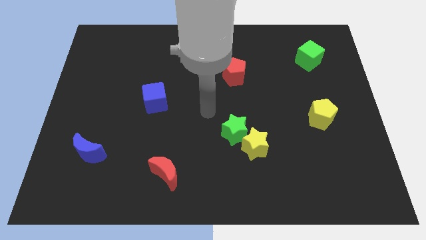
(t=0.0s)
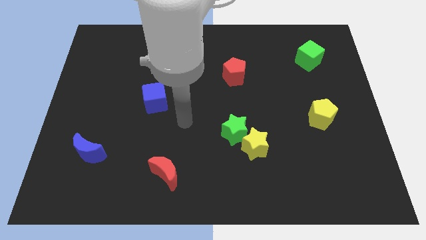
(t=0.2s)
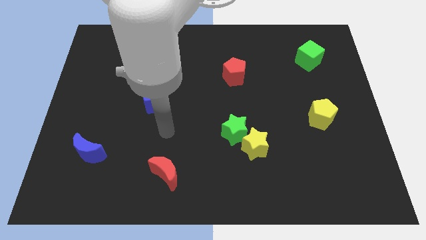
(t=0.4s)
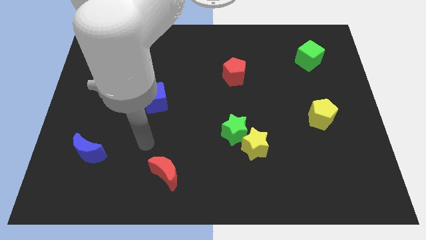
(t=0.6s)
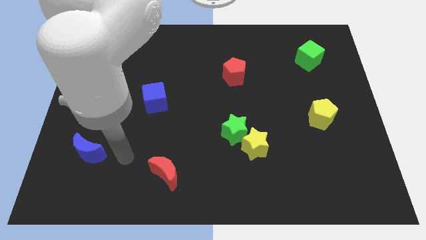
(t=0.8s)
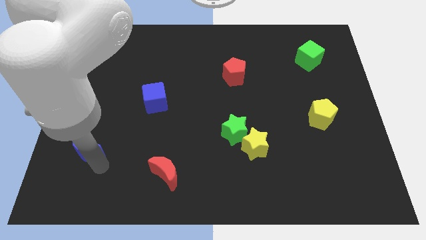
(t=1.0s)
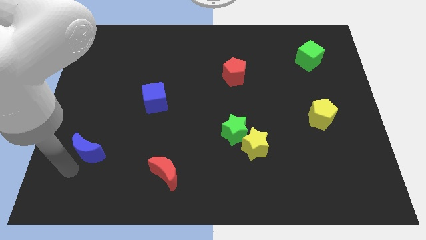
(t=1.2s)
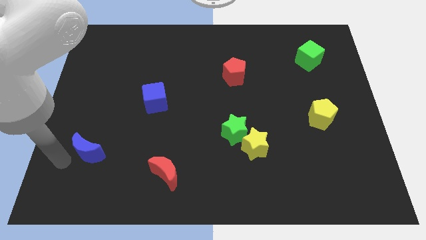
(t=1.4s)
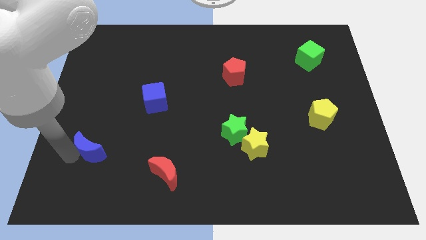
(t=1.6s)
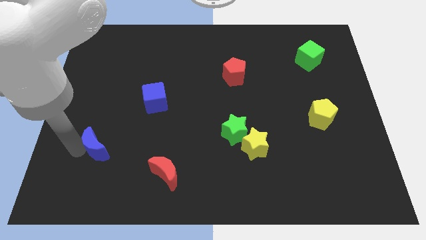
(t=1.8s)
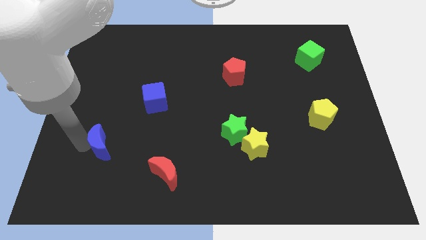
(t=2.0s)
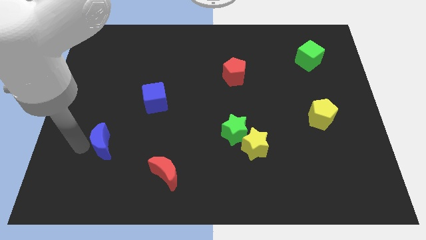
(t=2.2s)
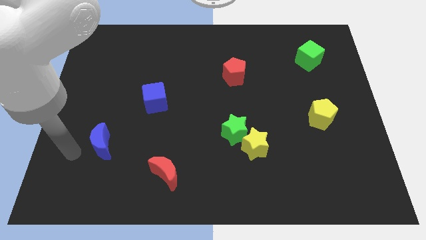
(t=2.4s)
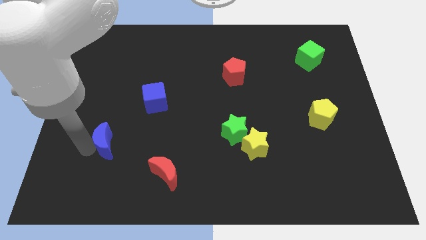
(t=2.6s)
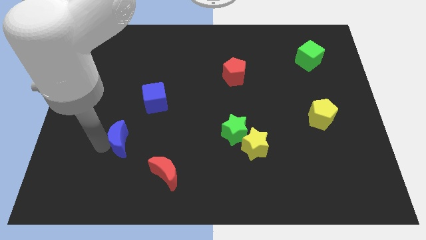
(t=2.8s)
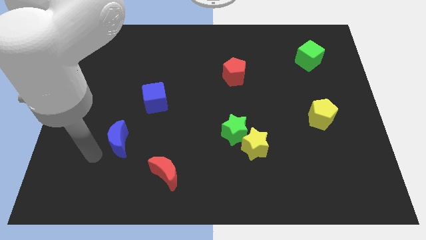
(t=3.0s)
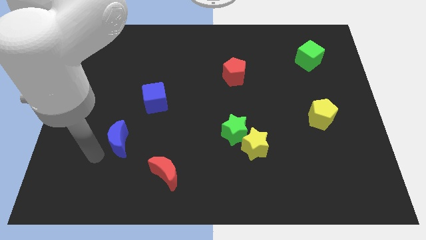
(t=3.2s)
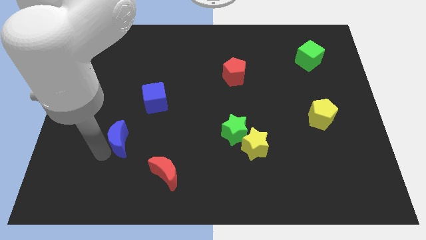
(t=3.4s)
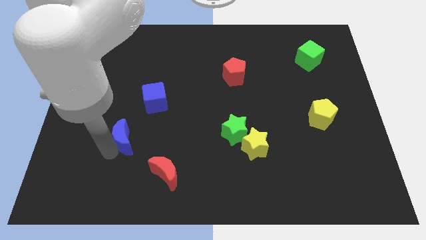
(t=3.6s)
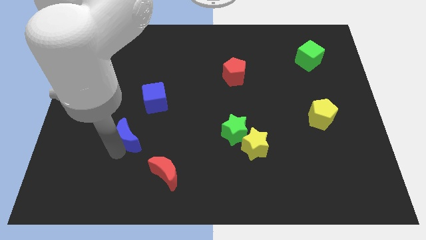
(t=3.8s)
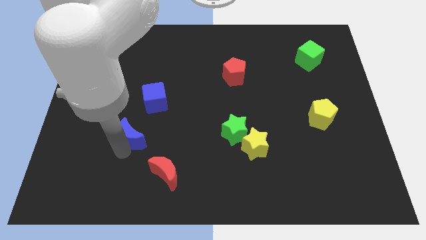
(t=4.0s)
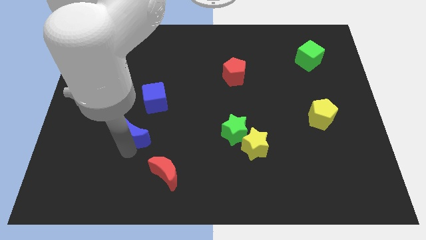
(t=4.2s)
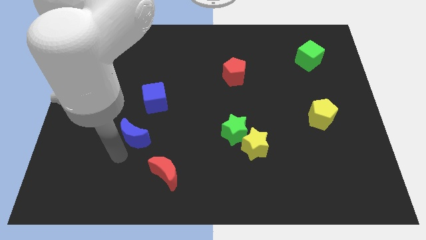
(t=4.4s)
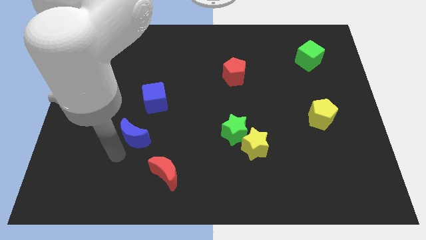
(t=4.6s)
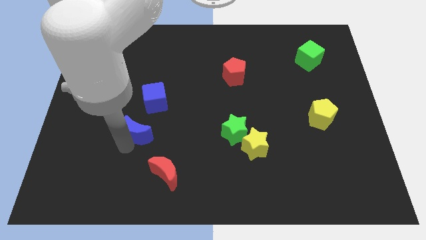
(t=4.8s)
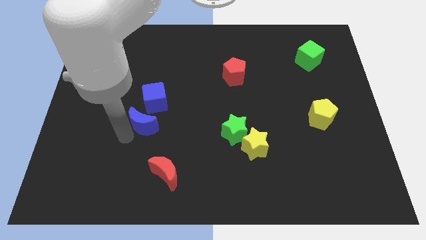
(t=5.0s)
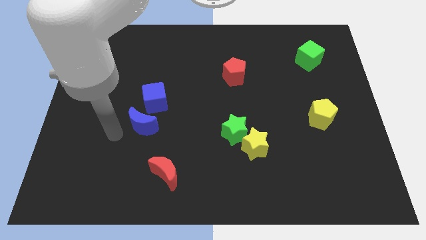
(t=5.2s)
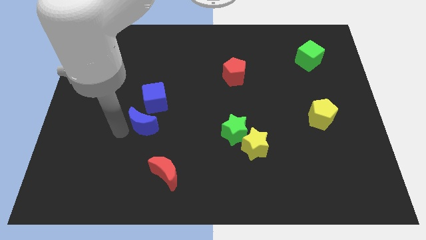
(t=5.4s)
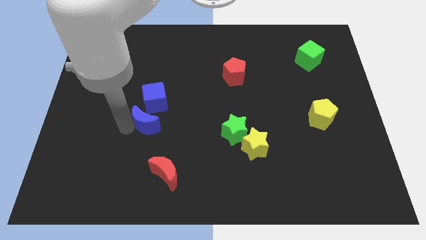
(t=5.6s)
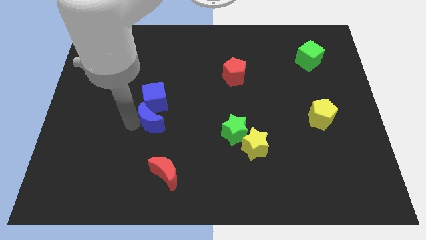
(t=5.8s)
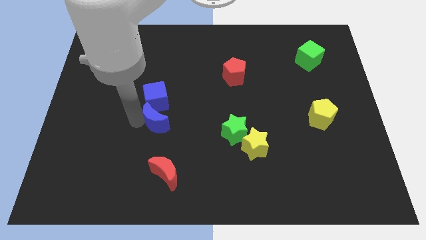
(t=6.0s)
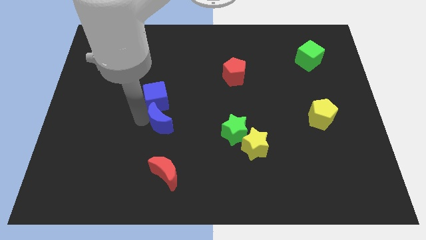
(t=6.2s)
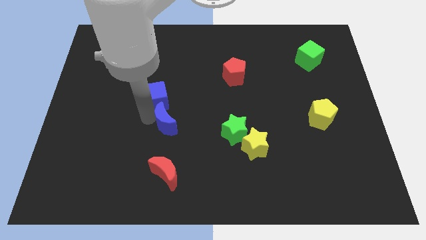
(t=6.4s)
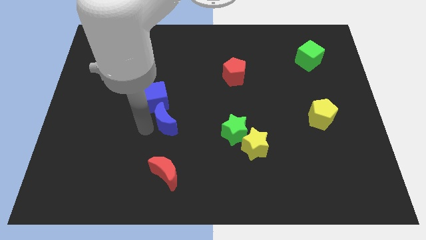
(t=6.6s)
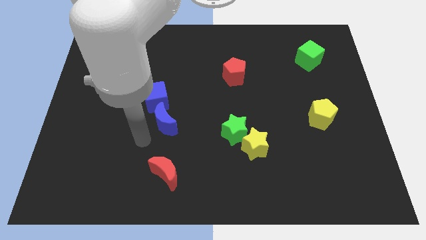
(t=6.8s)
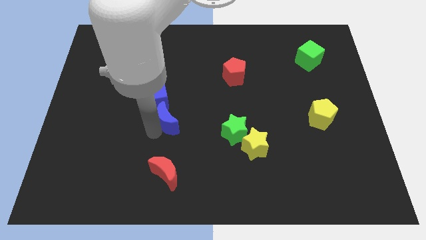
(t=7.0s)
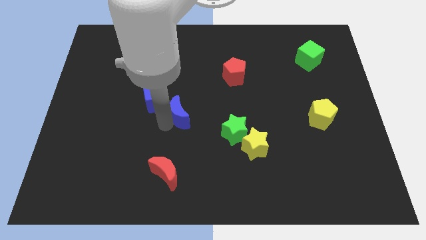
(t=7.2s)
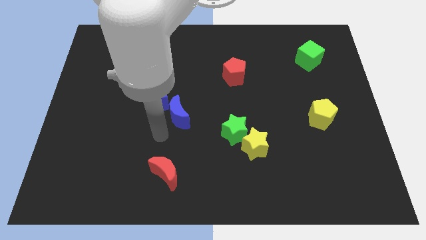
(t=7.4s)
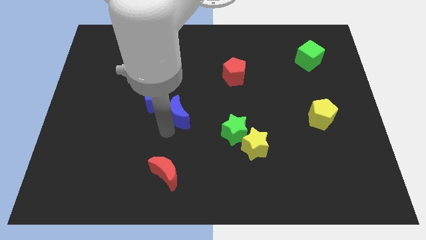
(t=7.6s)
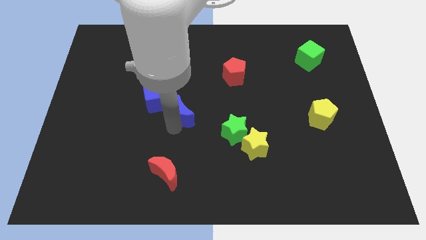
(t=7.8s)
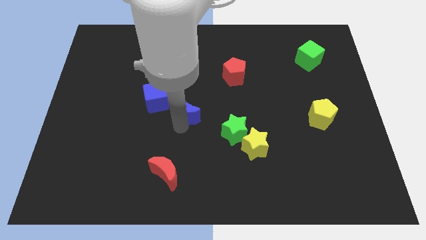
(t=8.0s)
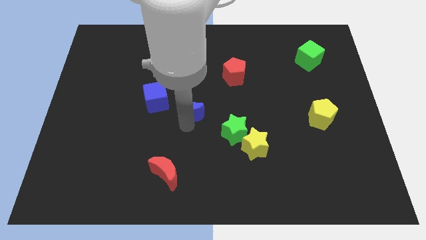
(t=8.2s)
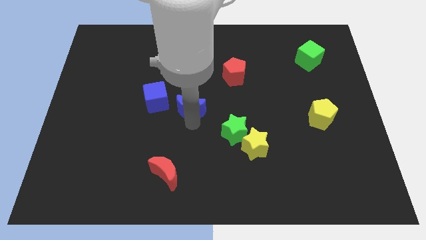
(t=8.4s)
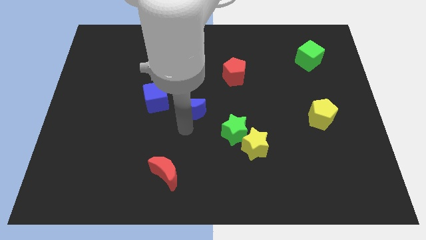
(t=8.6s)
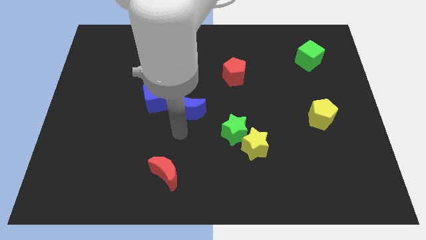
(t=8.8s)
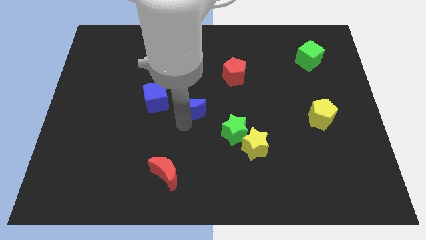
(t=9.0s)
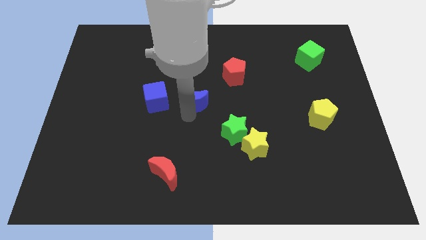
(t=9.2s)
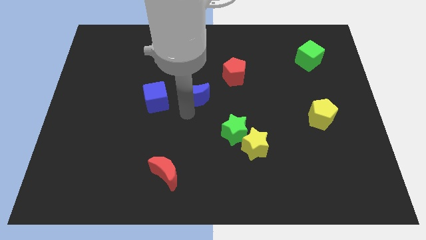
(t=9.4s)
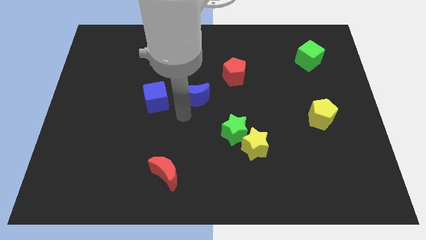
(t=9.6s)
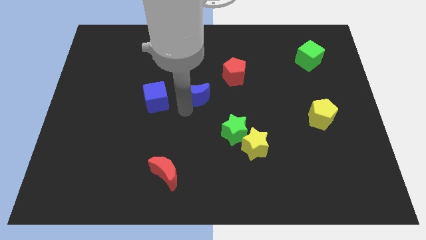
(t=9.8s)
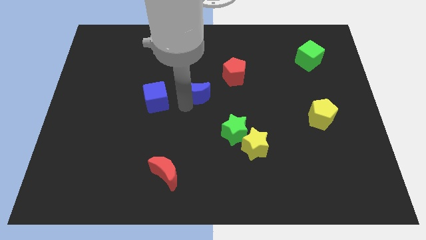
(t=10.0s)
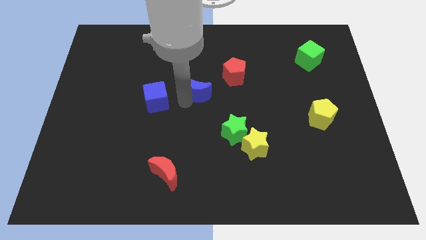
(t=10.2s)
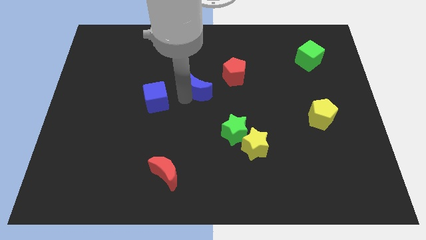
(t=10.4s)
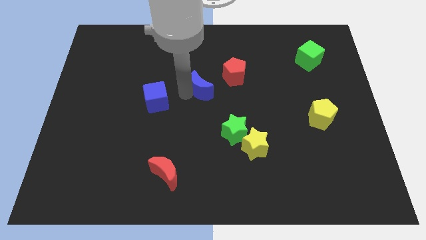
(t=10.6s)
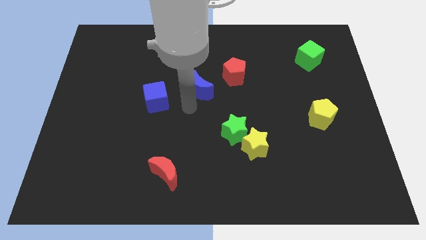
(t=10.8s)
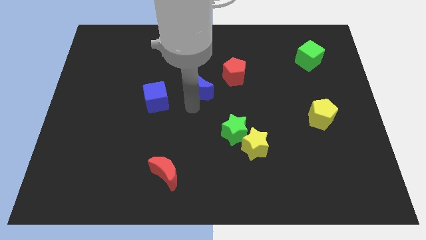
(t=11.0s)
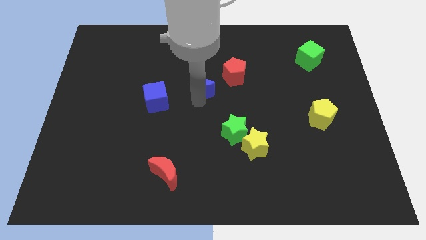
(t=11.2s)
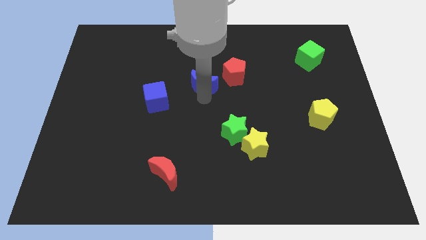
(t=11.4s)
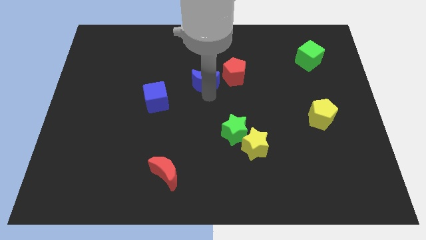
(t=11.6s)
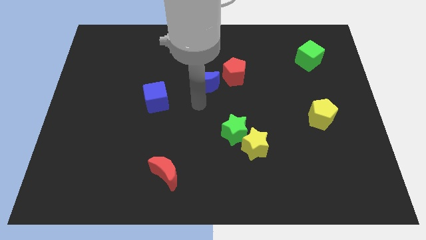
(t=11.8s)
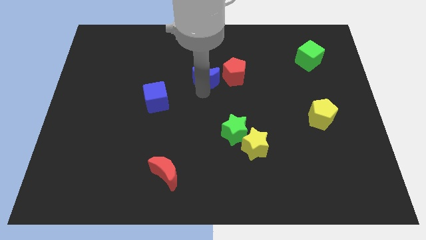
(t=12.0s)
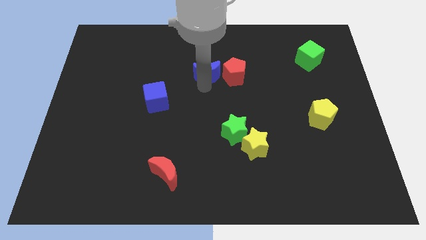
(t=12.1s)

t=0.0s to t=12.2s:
put the blue moon to the top left side of the red pentagon

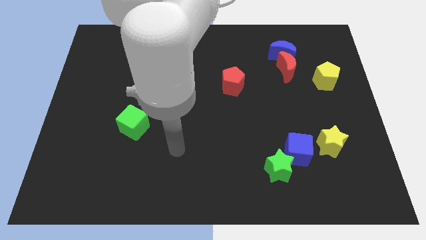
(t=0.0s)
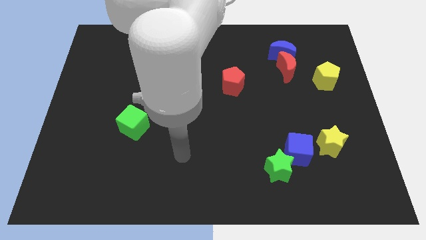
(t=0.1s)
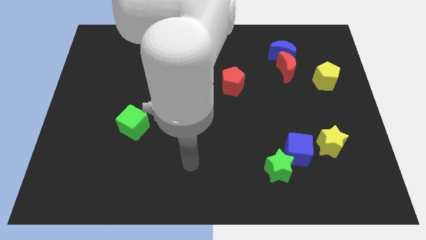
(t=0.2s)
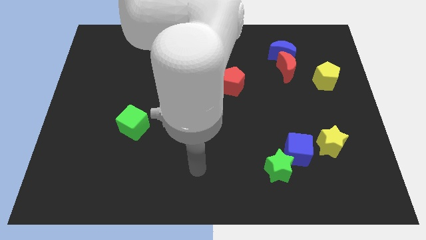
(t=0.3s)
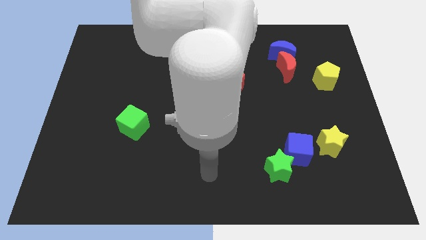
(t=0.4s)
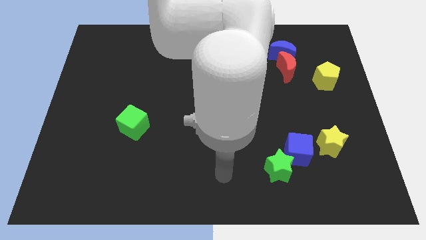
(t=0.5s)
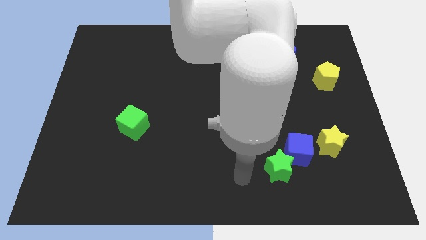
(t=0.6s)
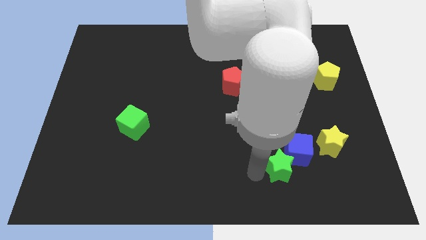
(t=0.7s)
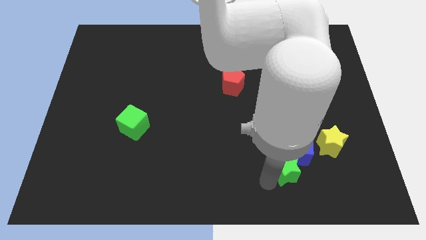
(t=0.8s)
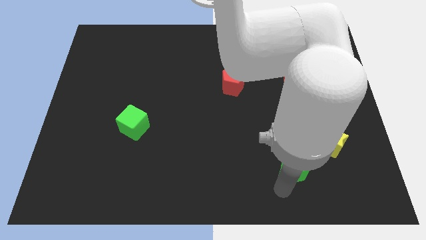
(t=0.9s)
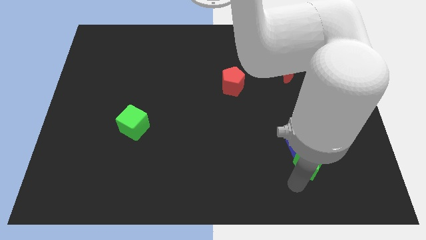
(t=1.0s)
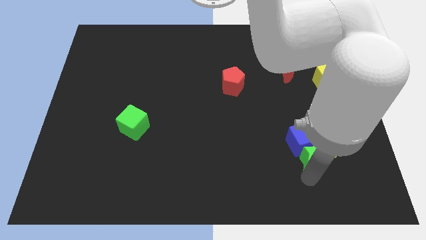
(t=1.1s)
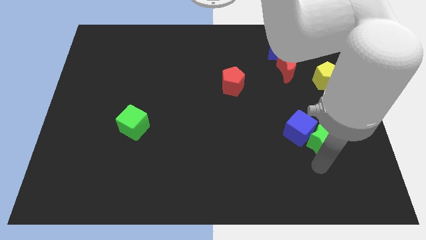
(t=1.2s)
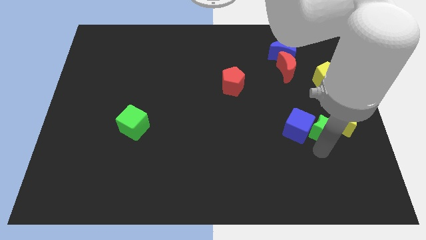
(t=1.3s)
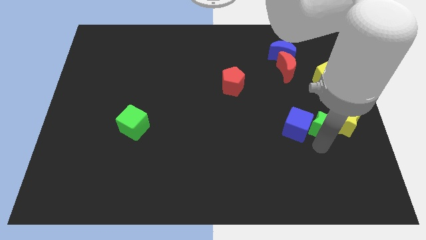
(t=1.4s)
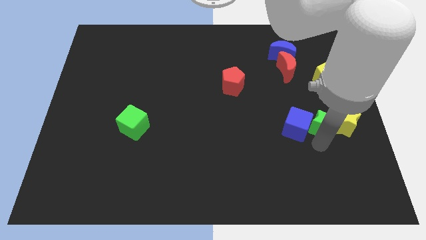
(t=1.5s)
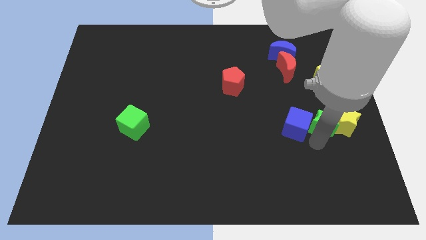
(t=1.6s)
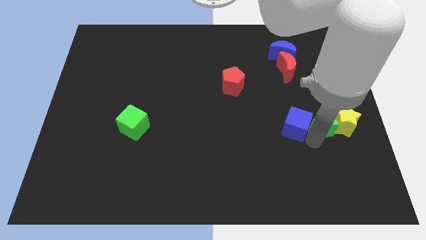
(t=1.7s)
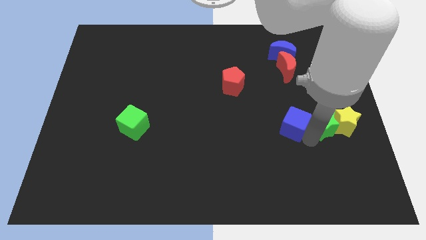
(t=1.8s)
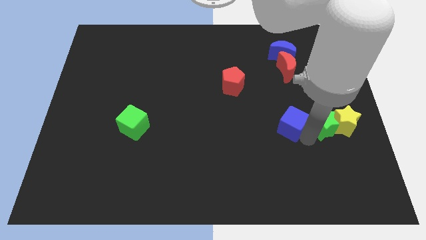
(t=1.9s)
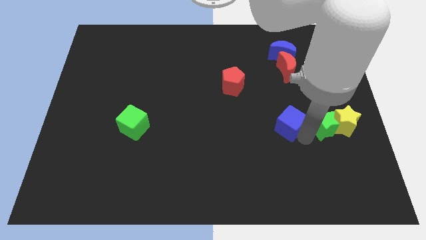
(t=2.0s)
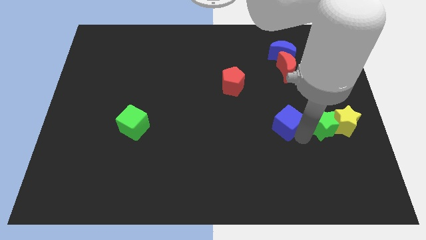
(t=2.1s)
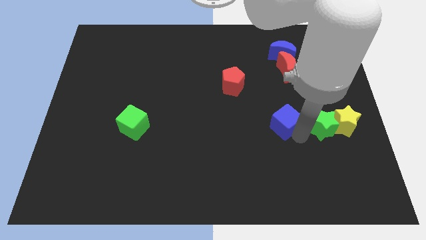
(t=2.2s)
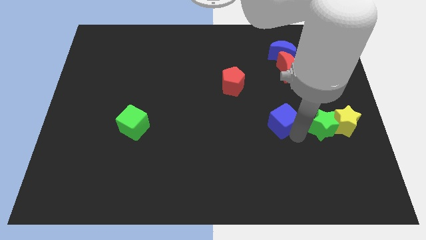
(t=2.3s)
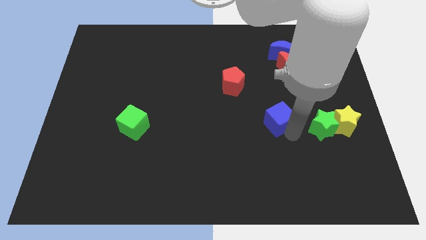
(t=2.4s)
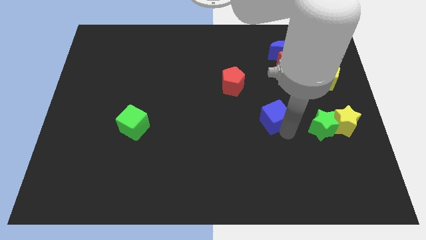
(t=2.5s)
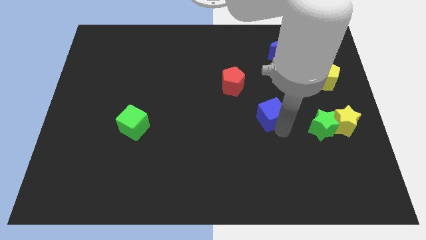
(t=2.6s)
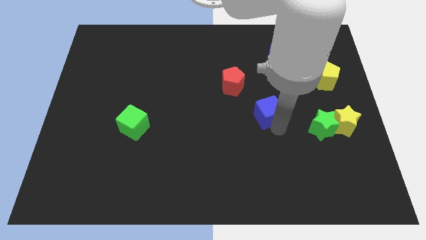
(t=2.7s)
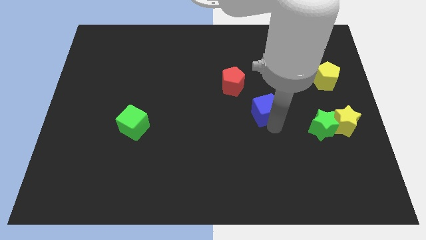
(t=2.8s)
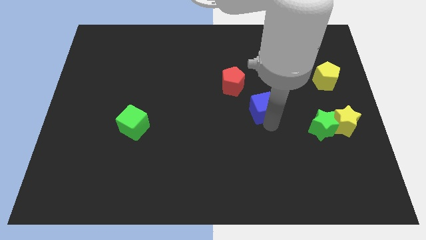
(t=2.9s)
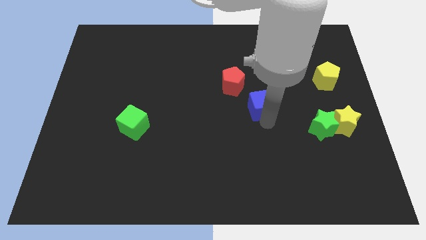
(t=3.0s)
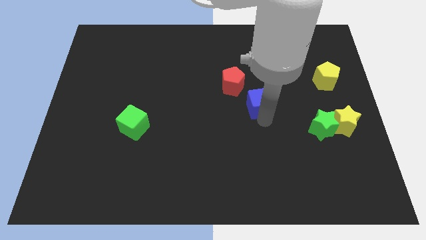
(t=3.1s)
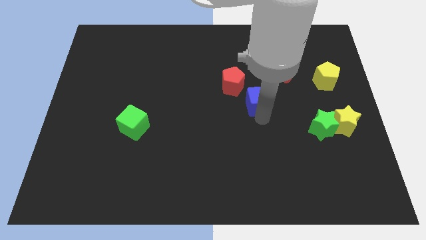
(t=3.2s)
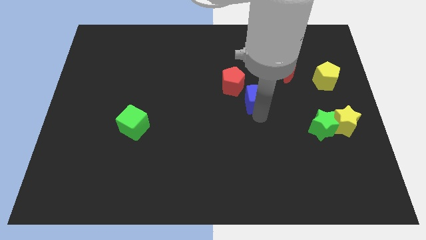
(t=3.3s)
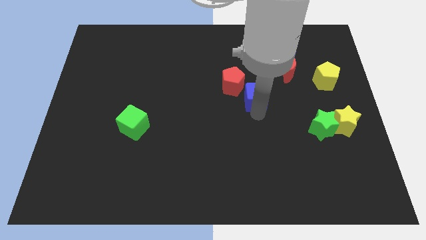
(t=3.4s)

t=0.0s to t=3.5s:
put the blue cube to the bottom left side of the red moon
